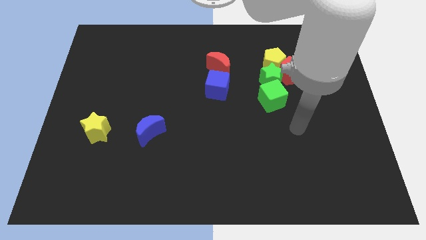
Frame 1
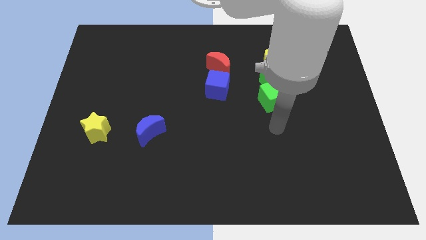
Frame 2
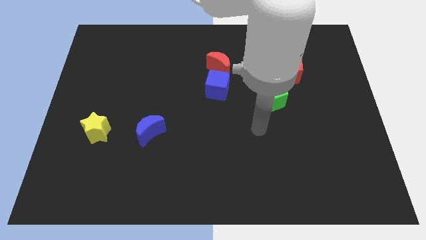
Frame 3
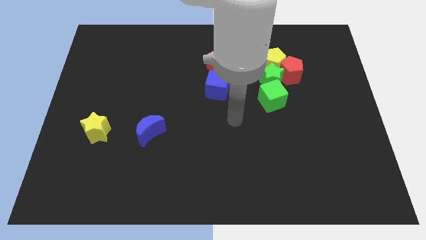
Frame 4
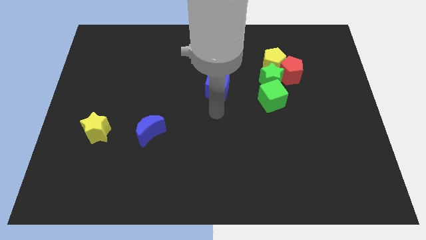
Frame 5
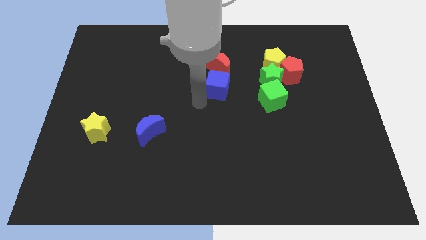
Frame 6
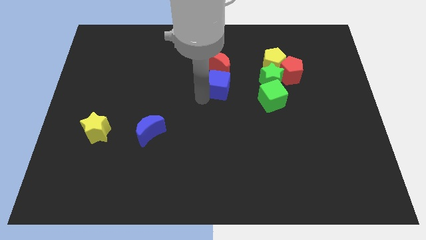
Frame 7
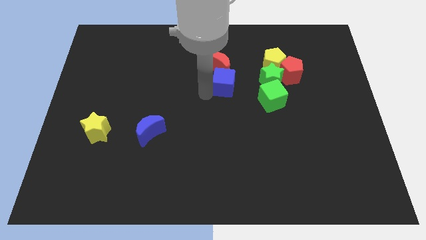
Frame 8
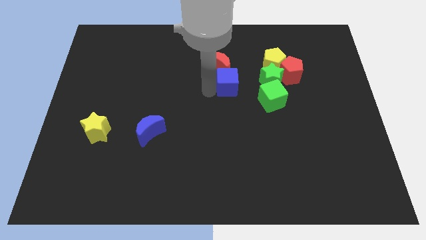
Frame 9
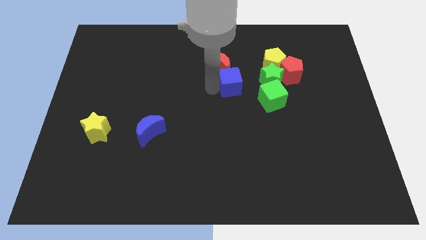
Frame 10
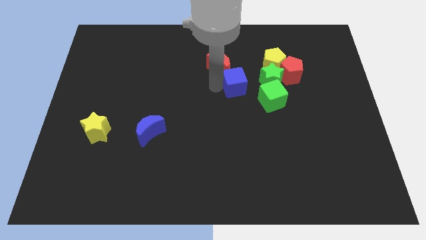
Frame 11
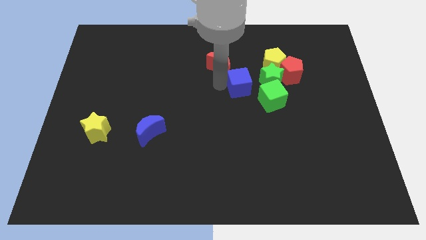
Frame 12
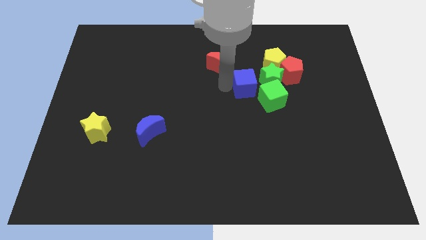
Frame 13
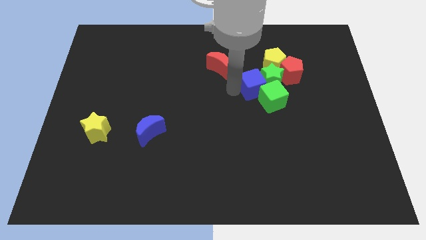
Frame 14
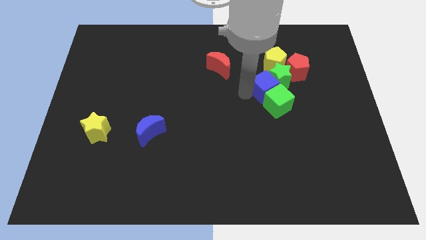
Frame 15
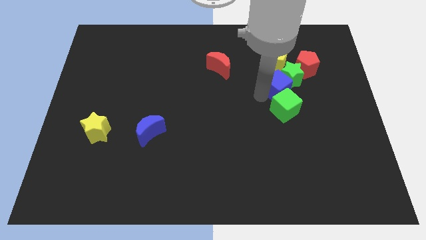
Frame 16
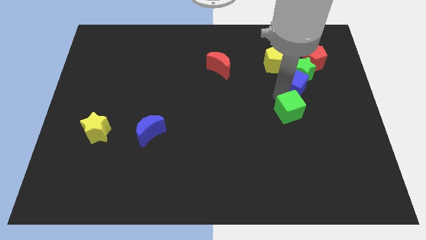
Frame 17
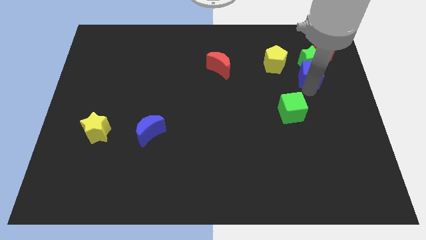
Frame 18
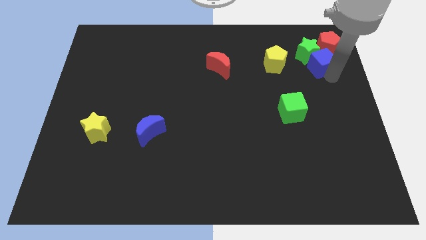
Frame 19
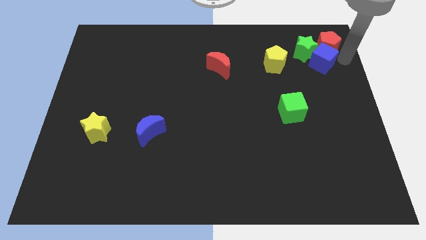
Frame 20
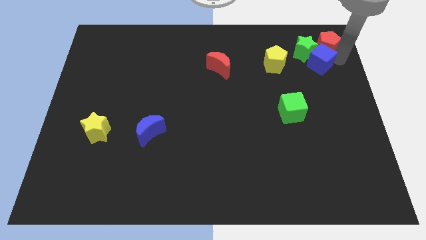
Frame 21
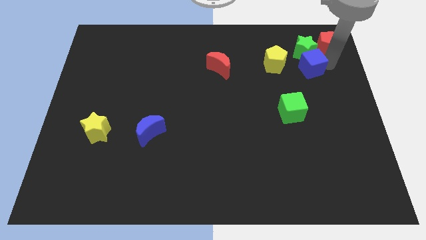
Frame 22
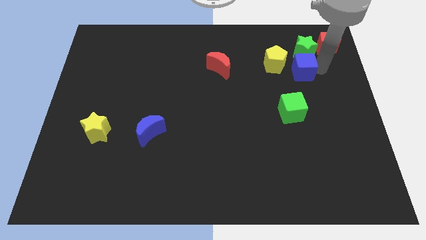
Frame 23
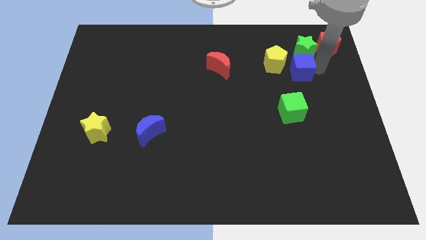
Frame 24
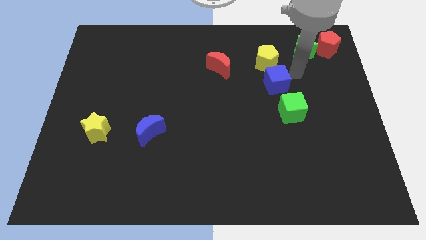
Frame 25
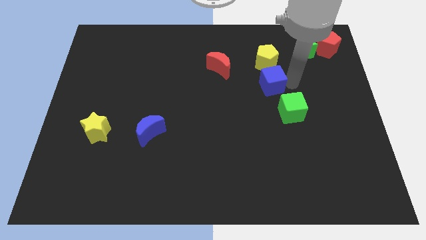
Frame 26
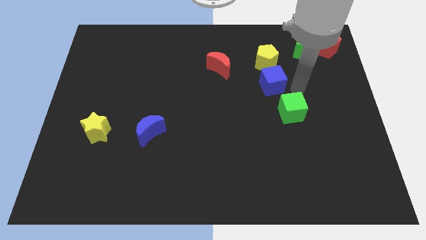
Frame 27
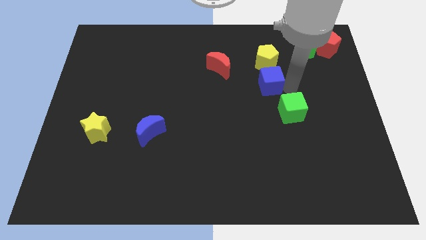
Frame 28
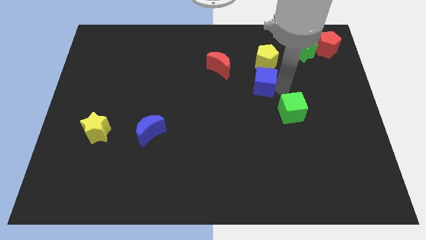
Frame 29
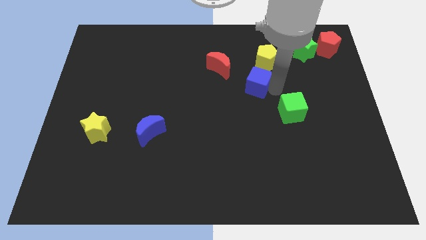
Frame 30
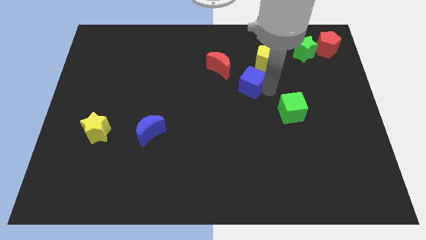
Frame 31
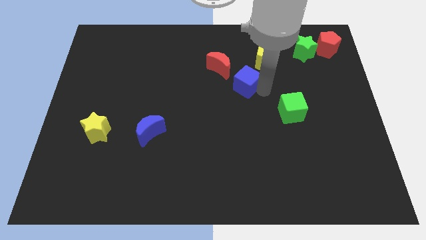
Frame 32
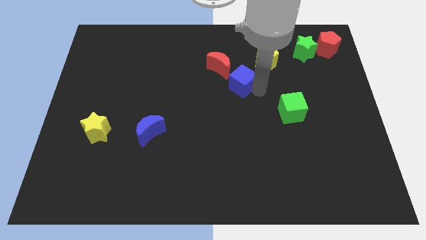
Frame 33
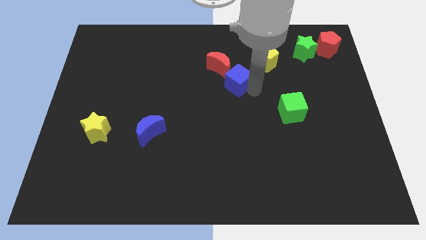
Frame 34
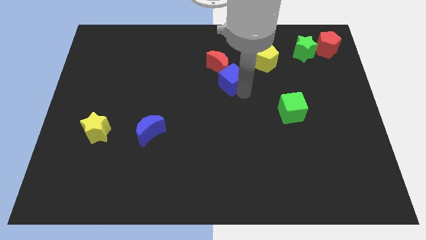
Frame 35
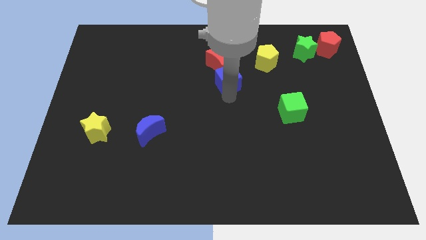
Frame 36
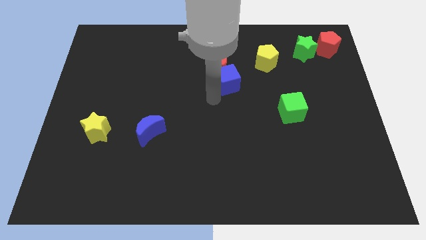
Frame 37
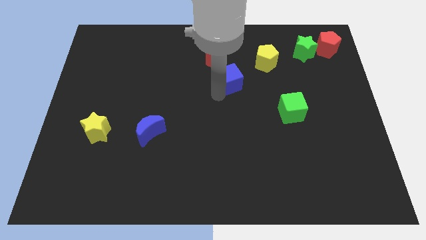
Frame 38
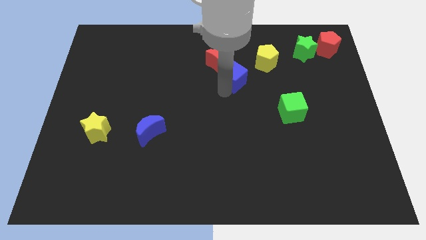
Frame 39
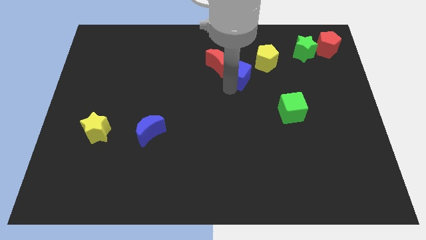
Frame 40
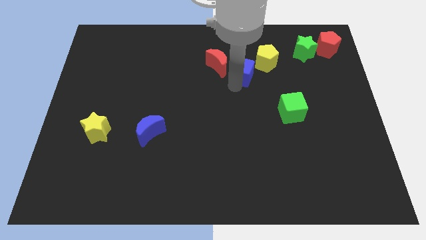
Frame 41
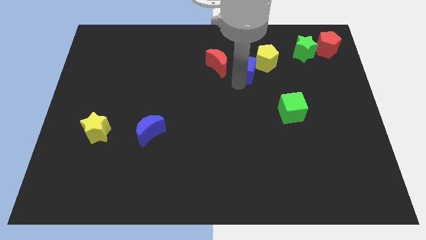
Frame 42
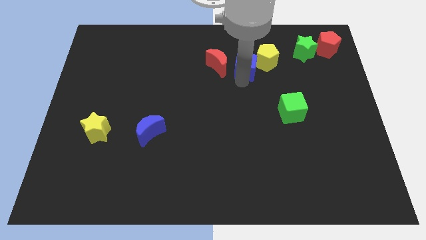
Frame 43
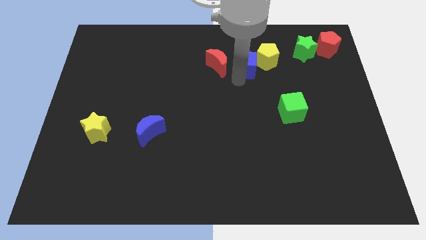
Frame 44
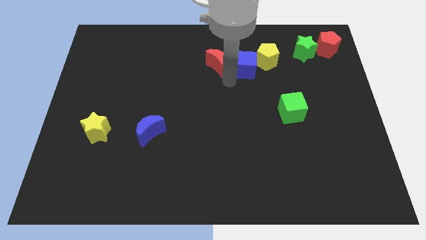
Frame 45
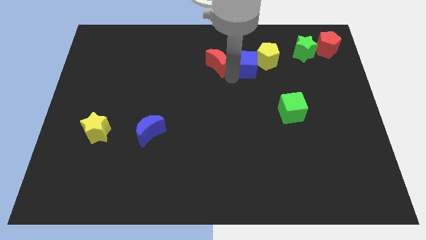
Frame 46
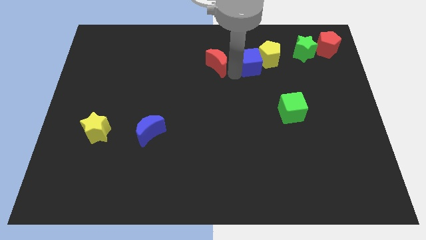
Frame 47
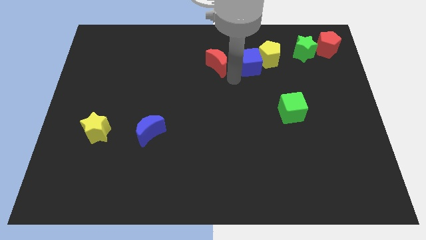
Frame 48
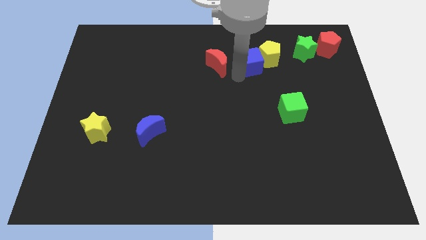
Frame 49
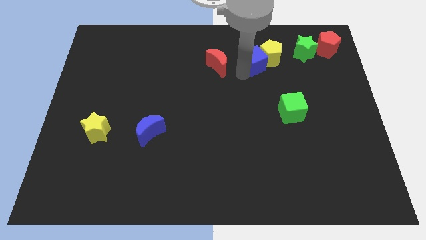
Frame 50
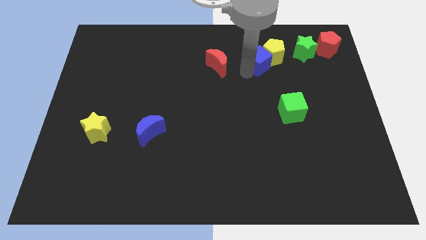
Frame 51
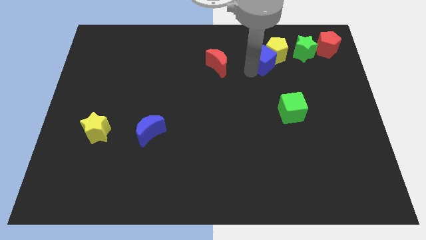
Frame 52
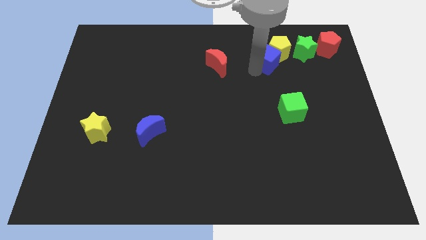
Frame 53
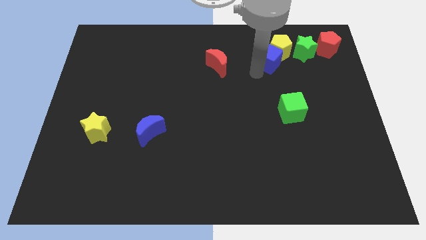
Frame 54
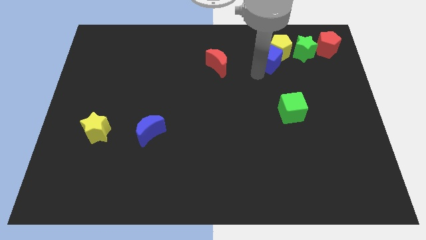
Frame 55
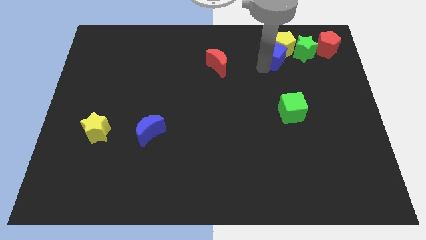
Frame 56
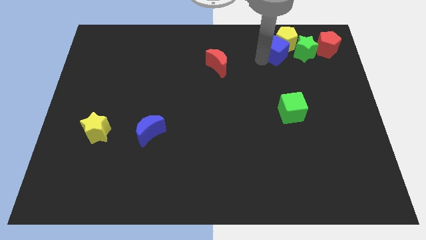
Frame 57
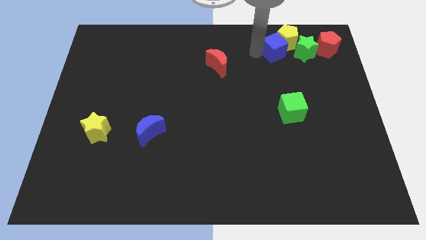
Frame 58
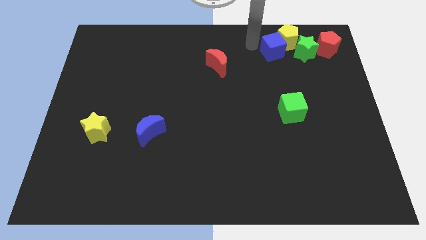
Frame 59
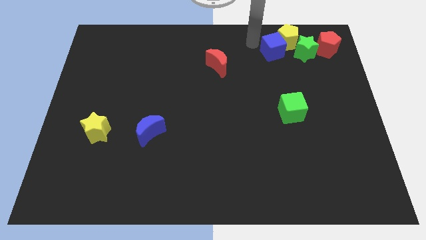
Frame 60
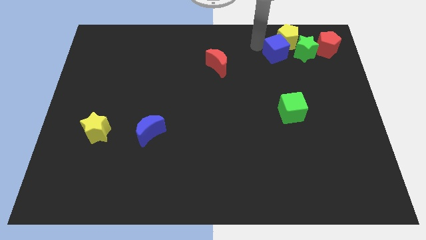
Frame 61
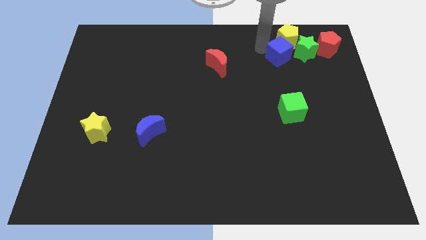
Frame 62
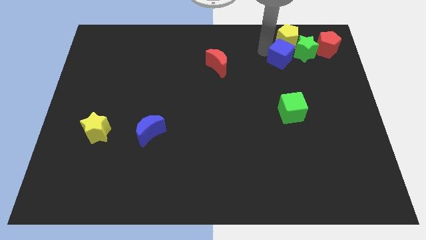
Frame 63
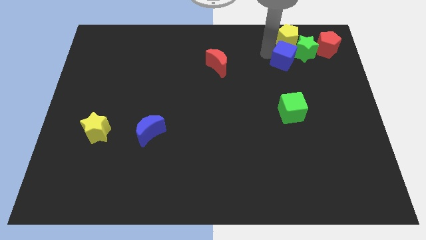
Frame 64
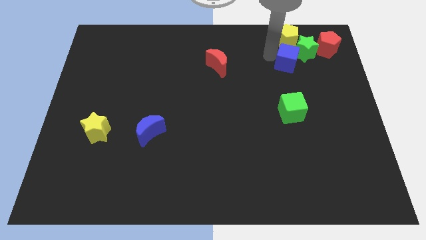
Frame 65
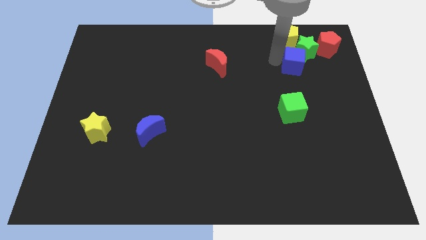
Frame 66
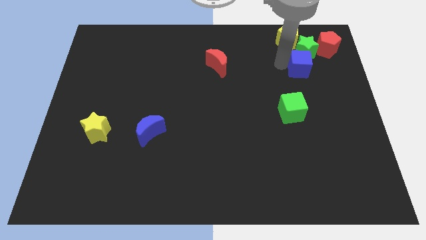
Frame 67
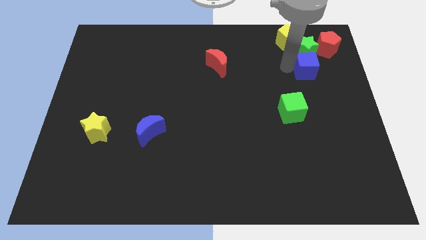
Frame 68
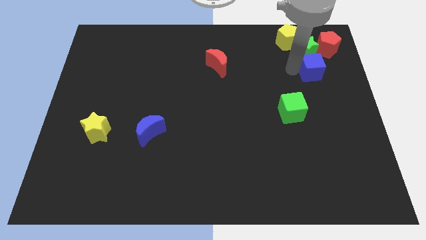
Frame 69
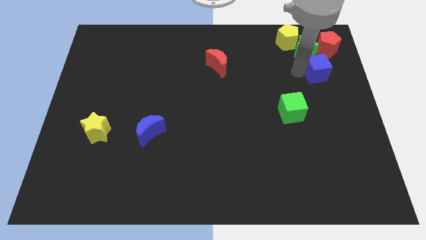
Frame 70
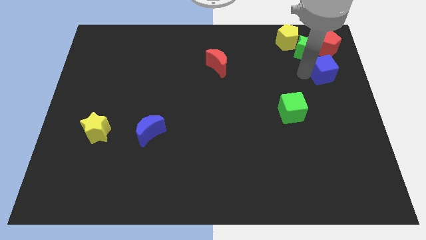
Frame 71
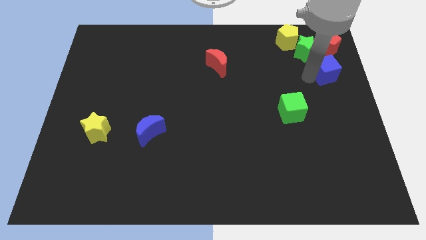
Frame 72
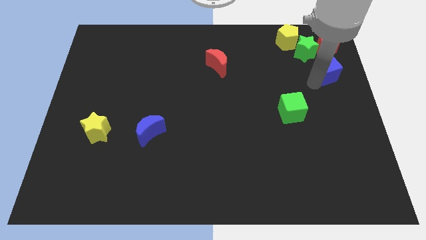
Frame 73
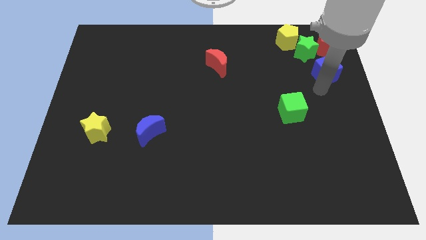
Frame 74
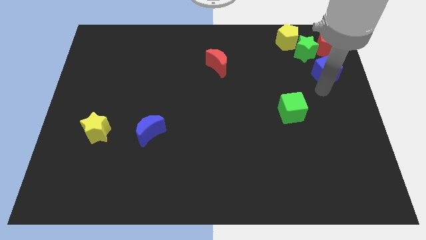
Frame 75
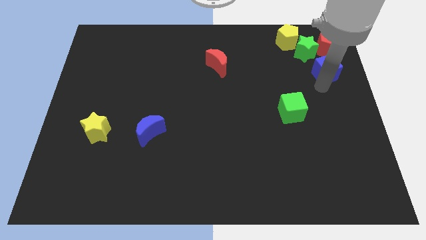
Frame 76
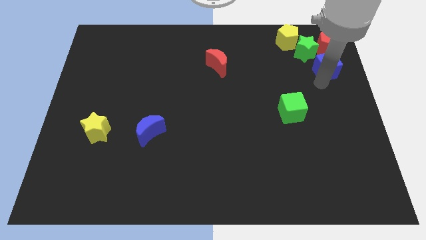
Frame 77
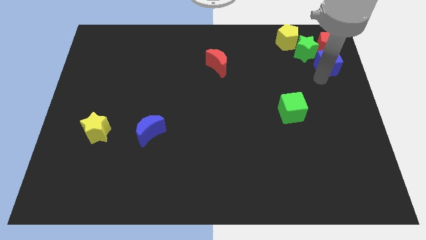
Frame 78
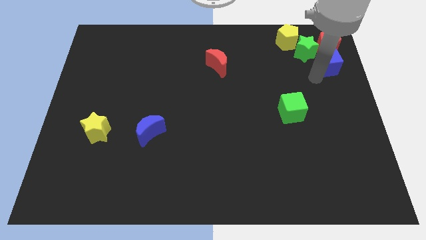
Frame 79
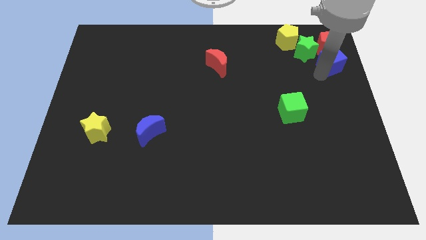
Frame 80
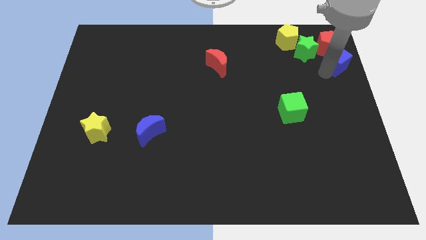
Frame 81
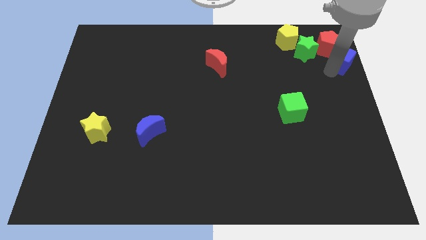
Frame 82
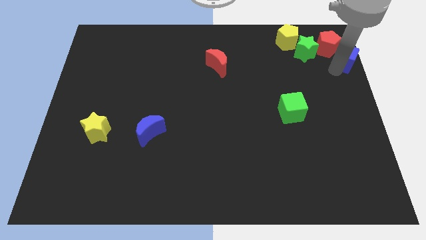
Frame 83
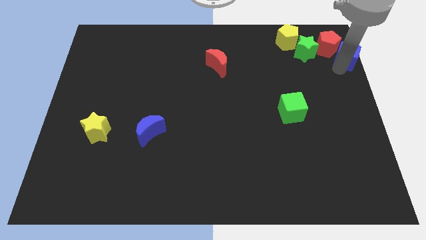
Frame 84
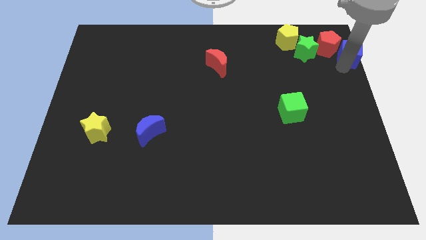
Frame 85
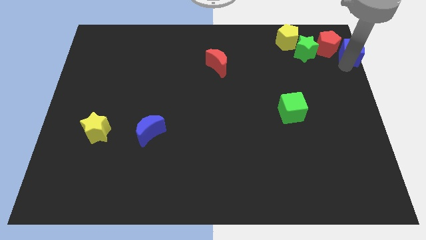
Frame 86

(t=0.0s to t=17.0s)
push the blue cube to the top right
